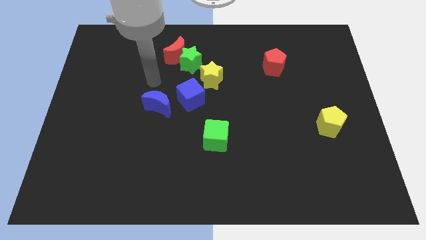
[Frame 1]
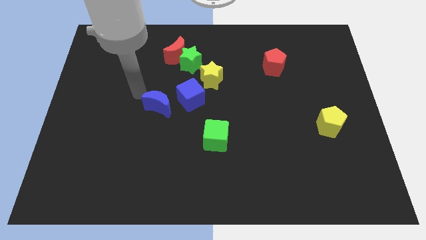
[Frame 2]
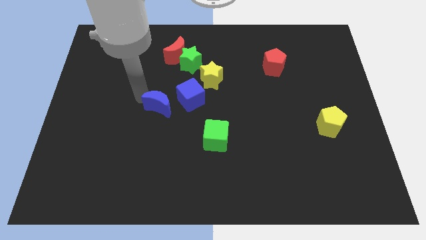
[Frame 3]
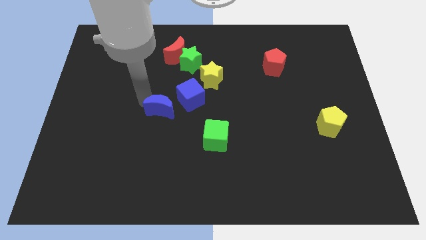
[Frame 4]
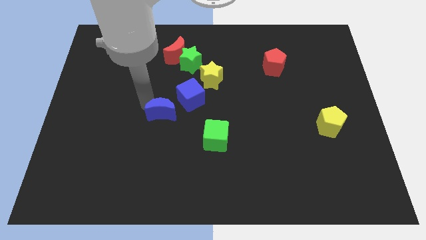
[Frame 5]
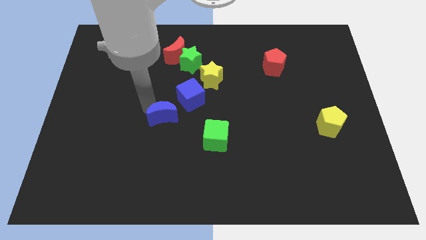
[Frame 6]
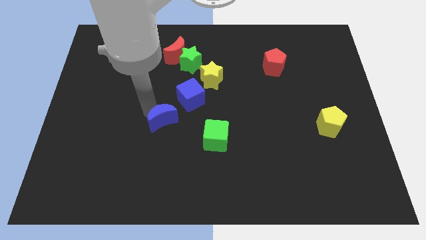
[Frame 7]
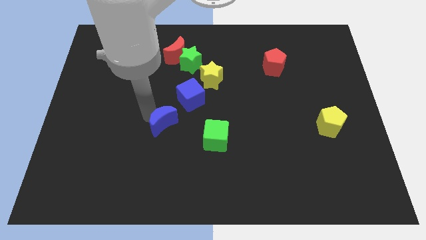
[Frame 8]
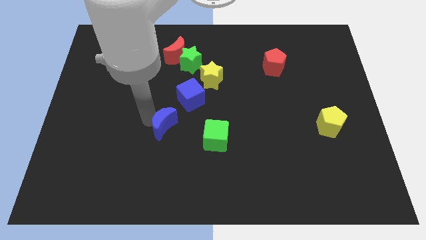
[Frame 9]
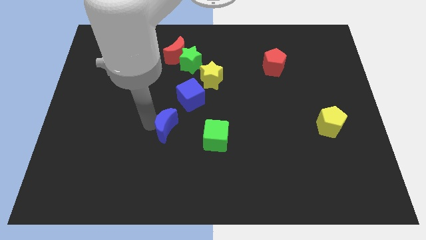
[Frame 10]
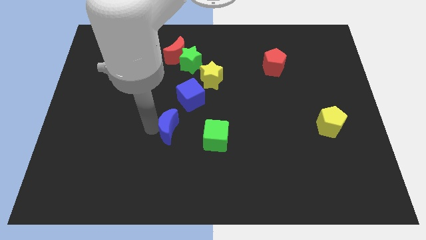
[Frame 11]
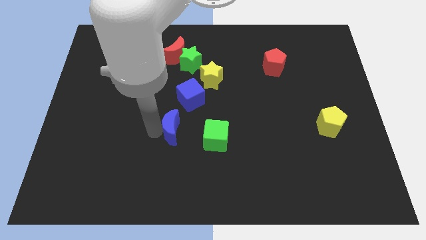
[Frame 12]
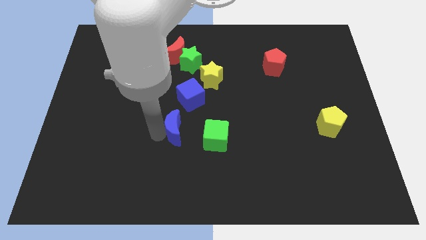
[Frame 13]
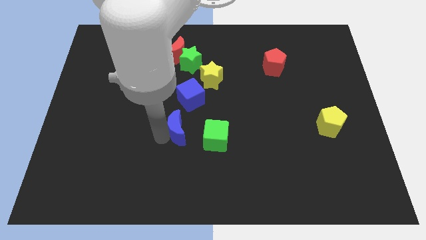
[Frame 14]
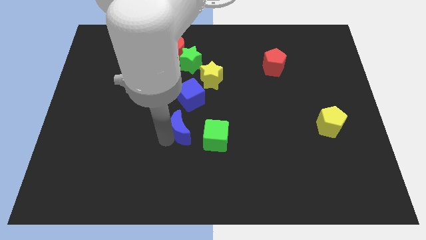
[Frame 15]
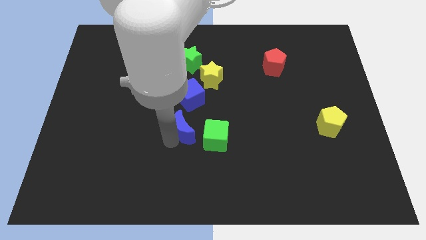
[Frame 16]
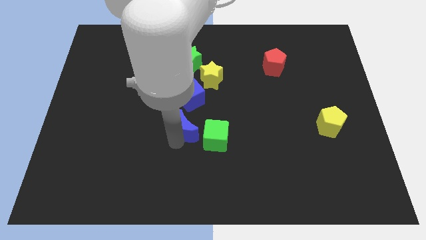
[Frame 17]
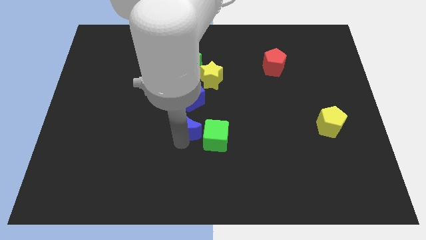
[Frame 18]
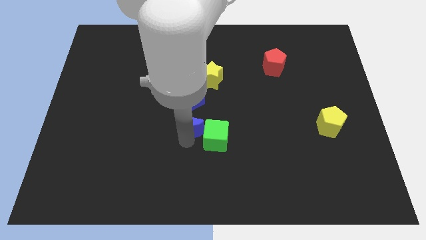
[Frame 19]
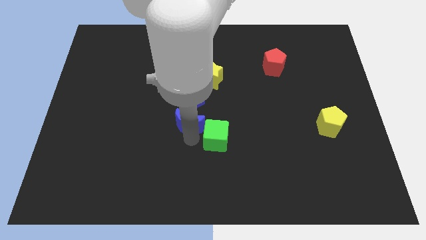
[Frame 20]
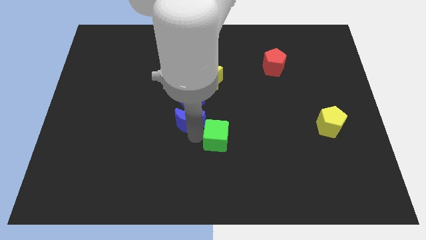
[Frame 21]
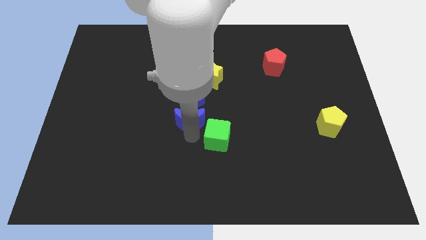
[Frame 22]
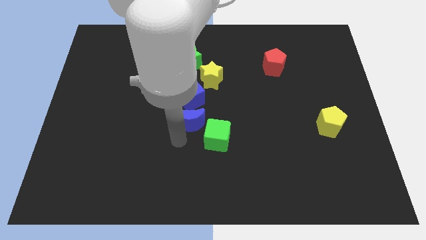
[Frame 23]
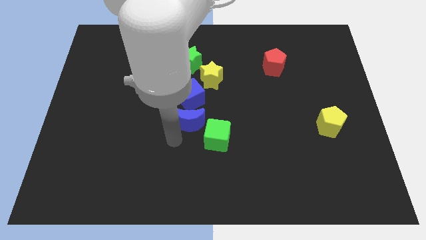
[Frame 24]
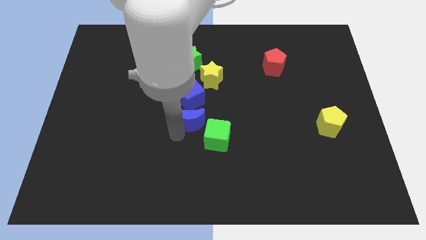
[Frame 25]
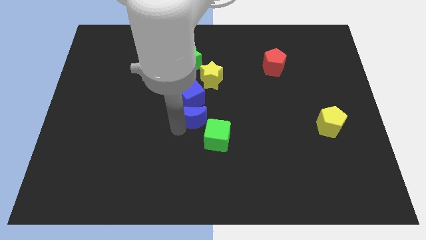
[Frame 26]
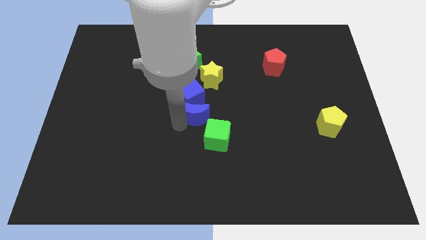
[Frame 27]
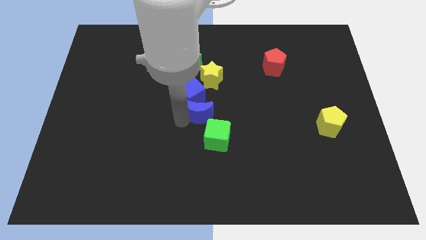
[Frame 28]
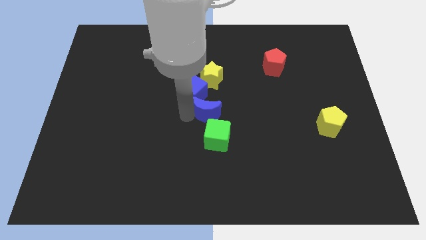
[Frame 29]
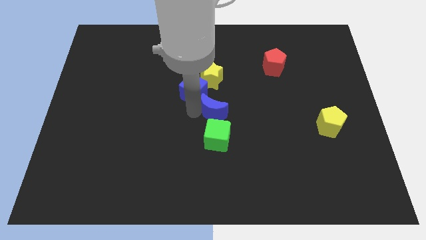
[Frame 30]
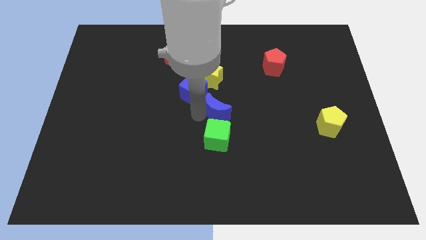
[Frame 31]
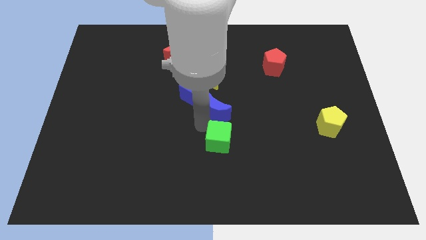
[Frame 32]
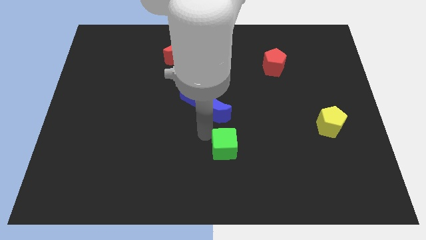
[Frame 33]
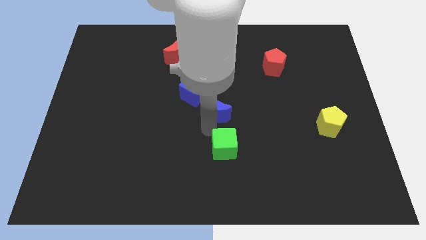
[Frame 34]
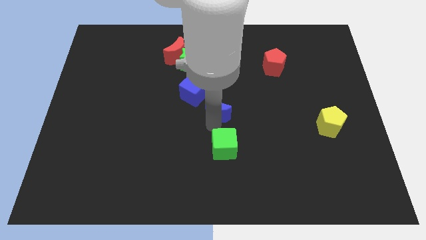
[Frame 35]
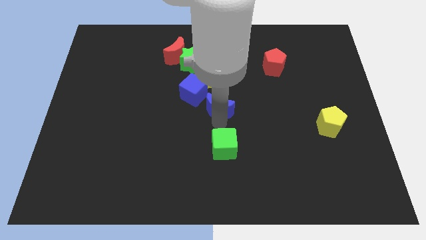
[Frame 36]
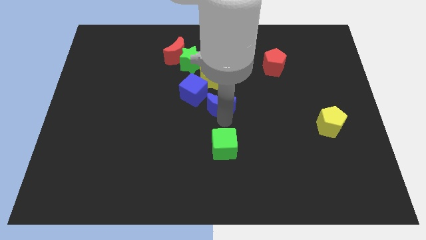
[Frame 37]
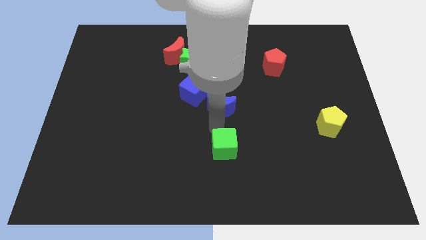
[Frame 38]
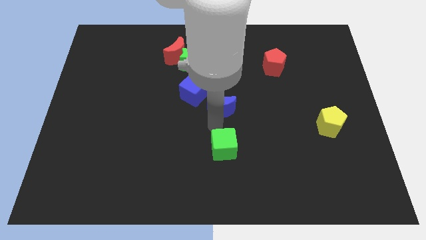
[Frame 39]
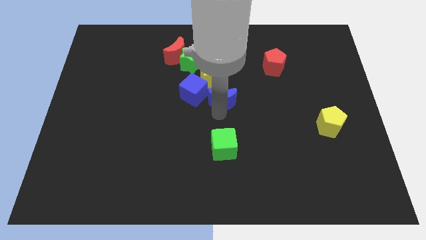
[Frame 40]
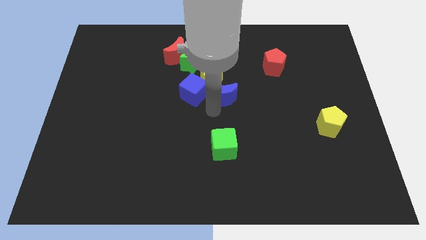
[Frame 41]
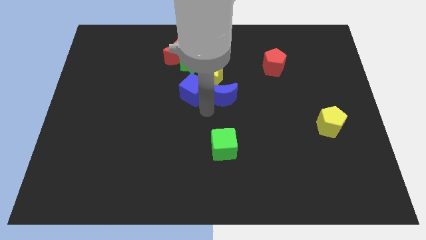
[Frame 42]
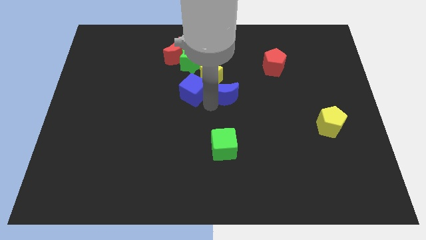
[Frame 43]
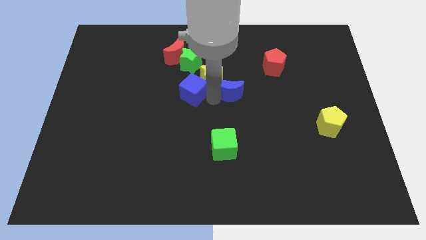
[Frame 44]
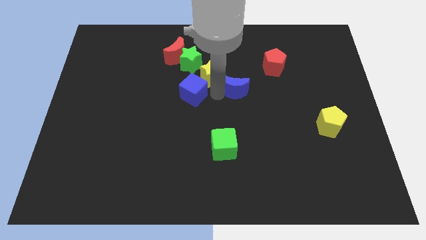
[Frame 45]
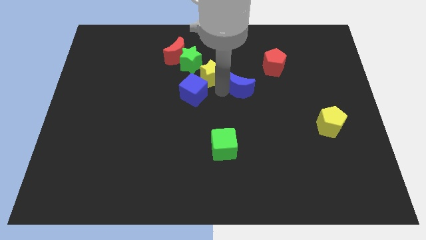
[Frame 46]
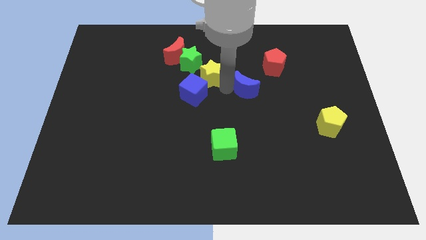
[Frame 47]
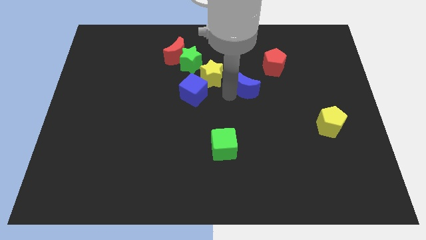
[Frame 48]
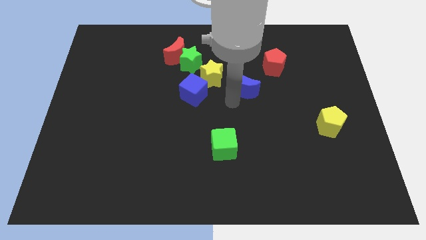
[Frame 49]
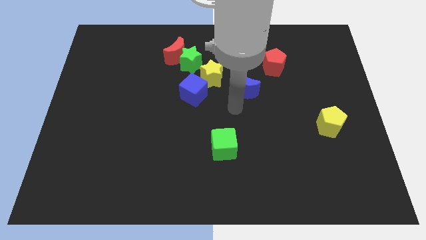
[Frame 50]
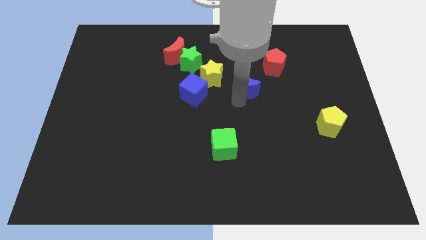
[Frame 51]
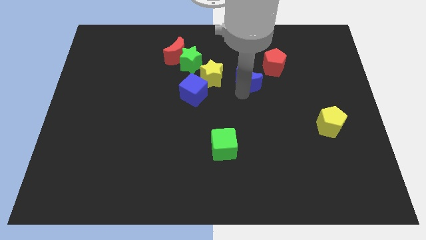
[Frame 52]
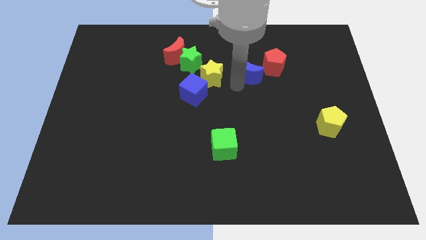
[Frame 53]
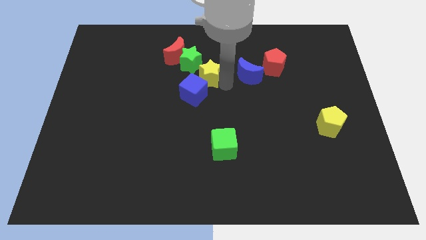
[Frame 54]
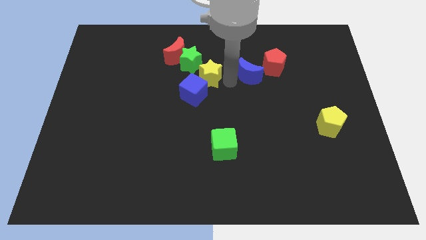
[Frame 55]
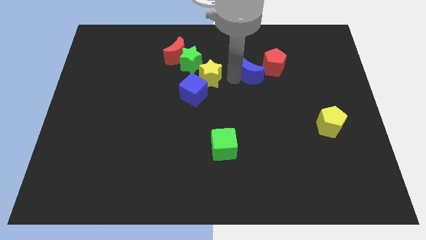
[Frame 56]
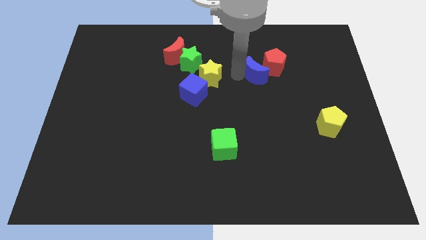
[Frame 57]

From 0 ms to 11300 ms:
put the blue moon to the red pentagon

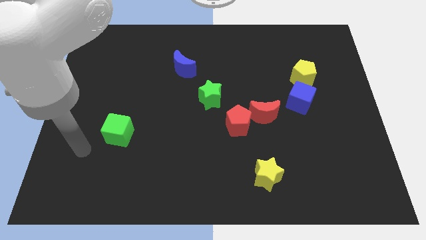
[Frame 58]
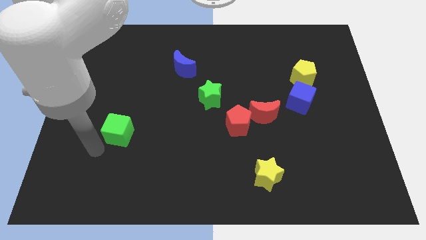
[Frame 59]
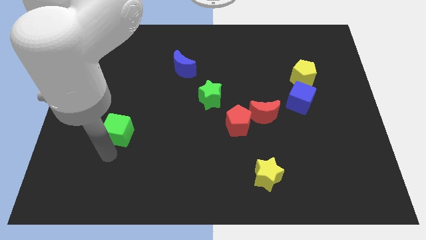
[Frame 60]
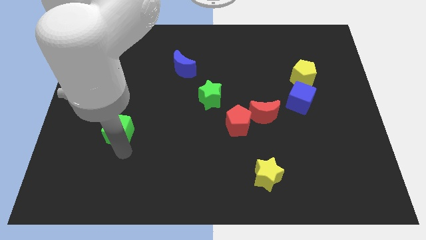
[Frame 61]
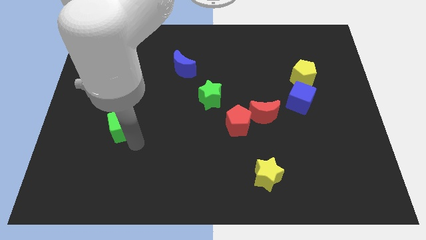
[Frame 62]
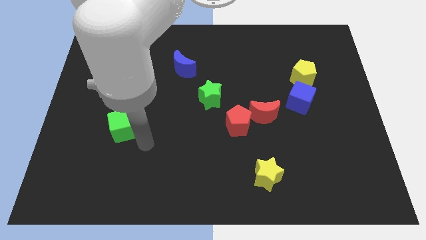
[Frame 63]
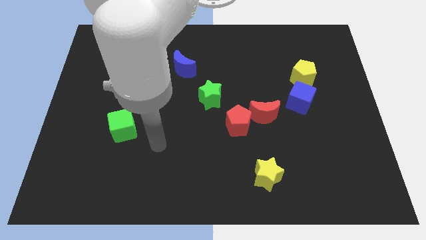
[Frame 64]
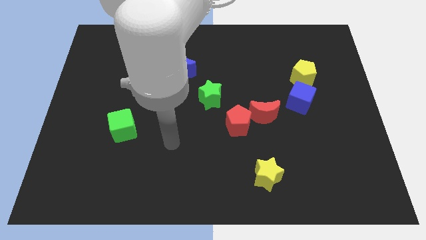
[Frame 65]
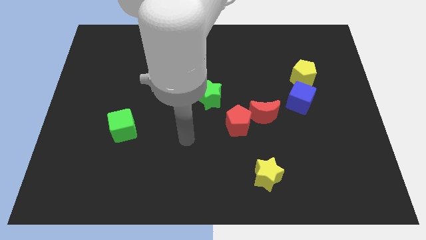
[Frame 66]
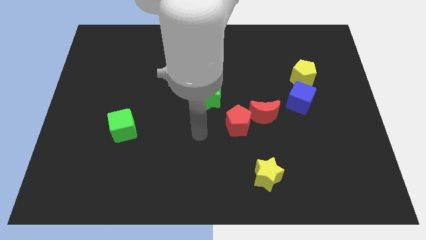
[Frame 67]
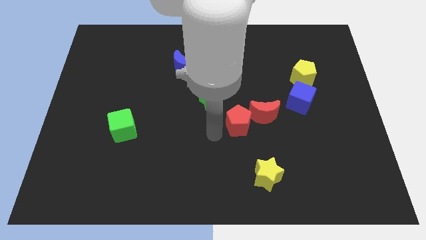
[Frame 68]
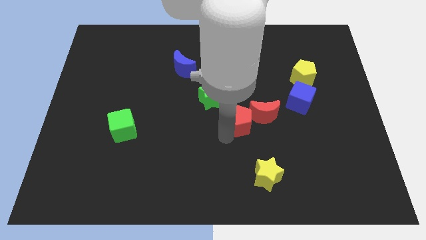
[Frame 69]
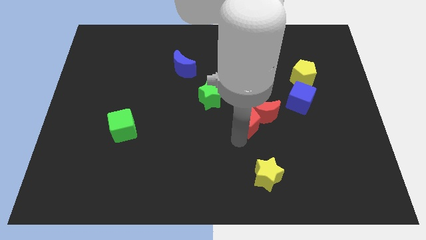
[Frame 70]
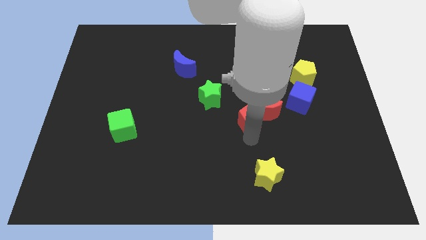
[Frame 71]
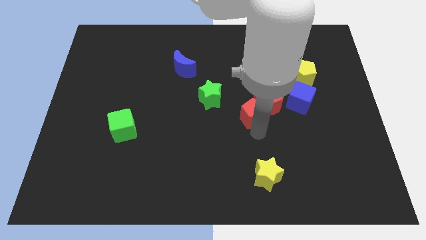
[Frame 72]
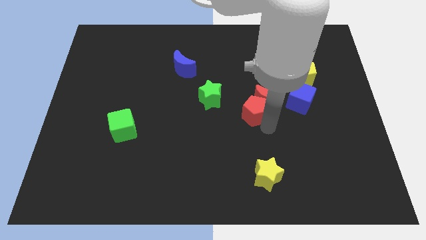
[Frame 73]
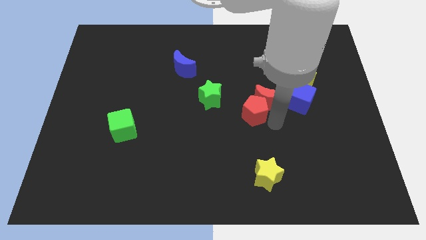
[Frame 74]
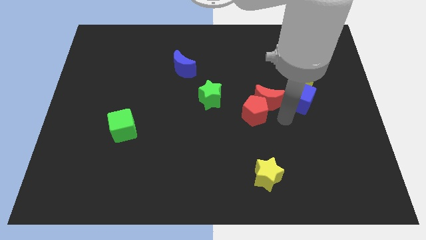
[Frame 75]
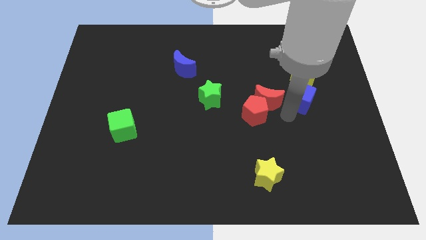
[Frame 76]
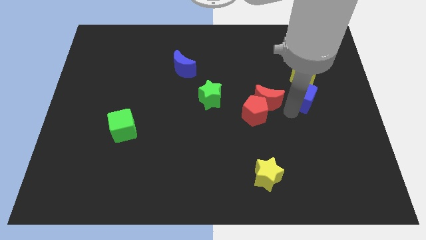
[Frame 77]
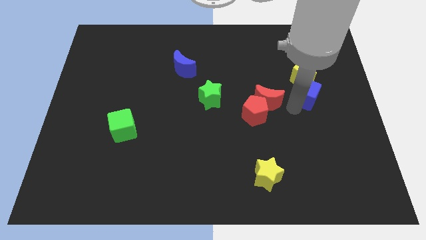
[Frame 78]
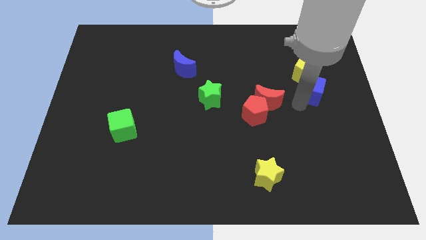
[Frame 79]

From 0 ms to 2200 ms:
slide the blue cube next to the yellow pentagon
